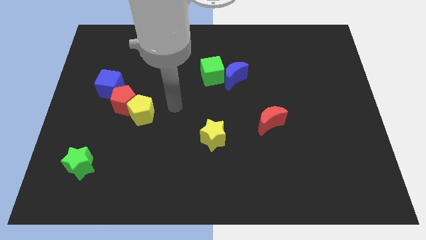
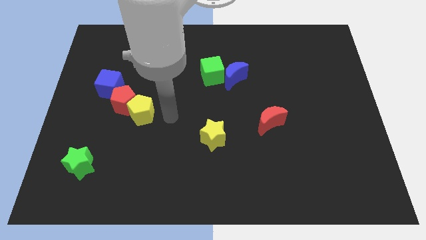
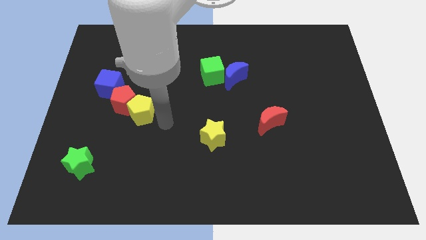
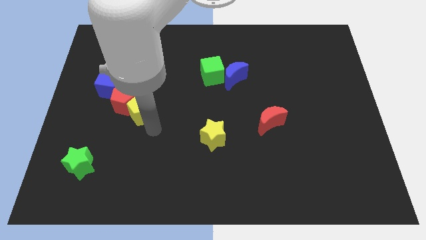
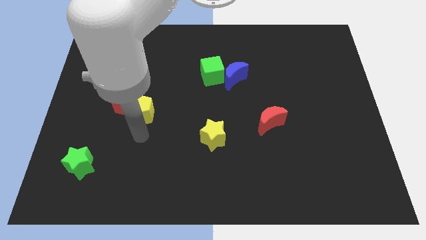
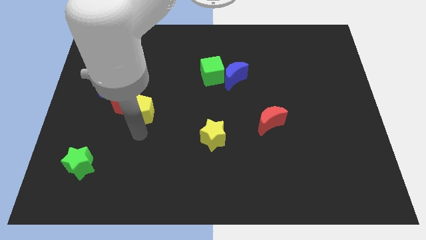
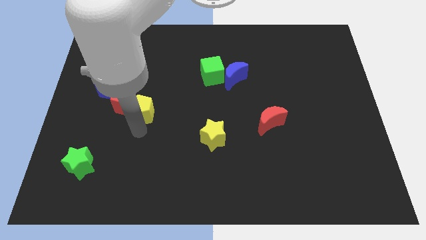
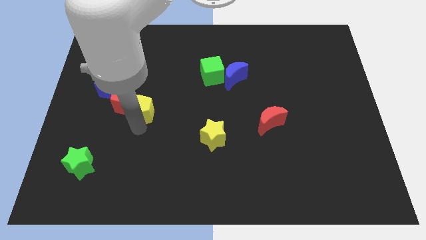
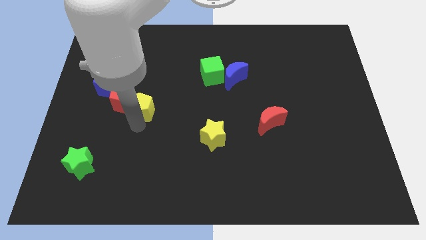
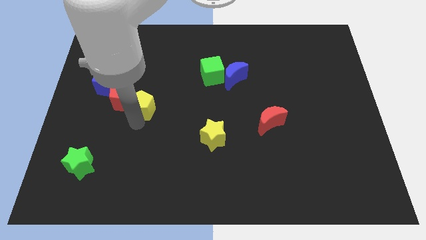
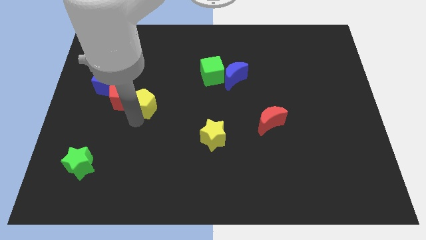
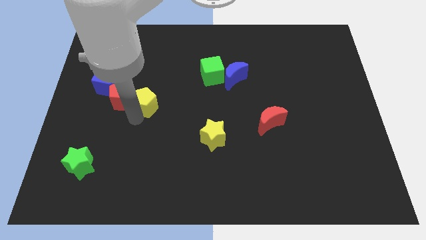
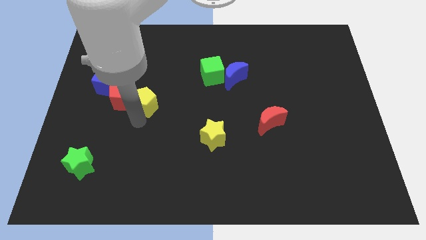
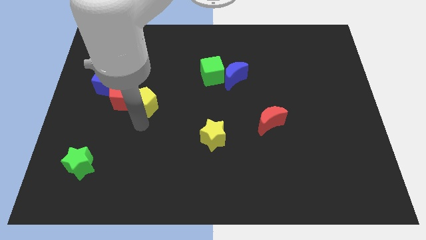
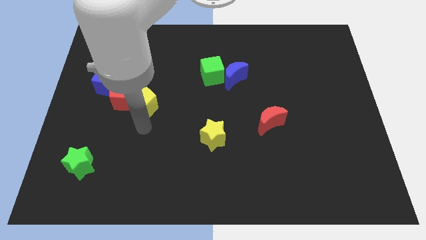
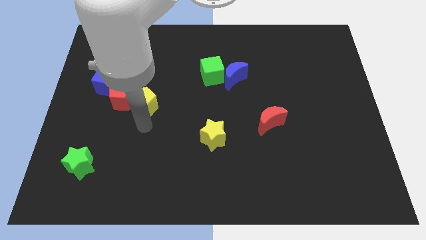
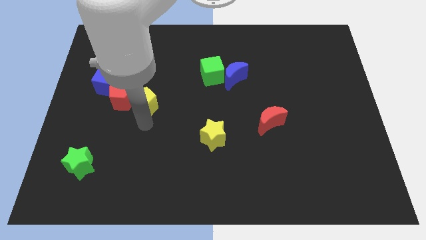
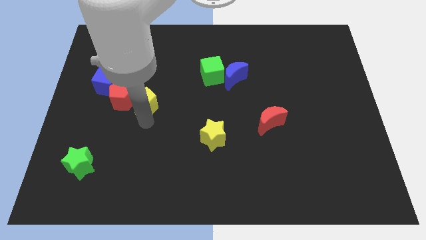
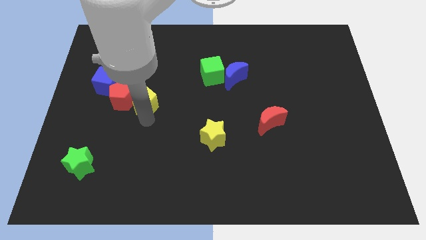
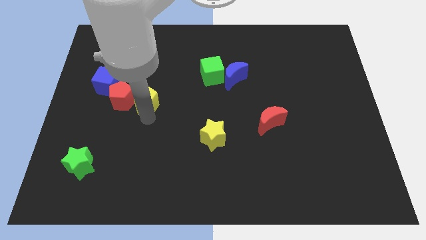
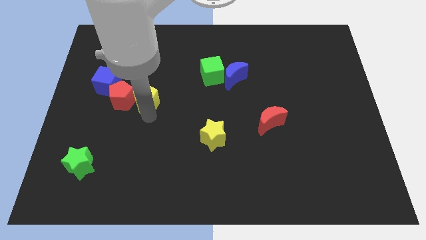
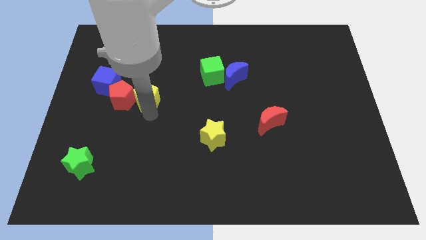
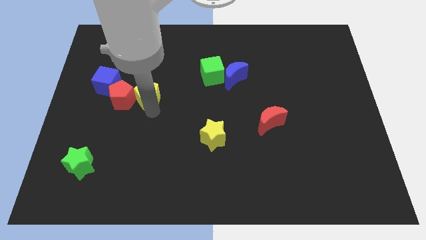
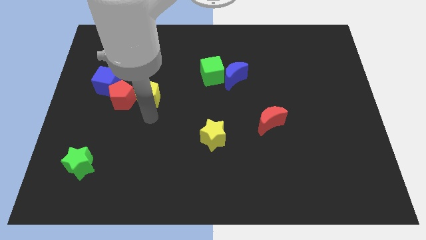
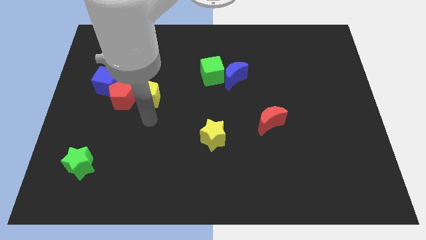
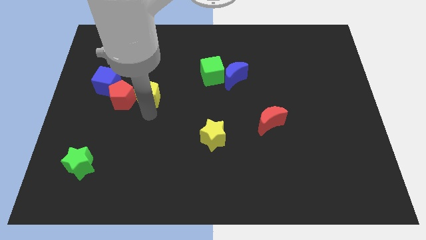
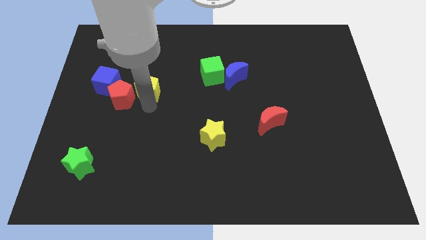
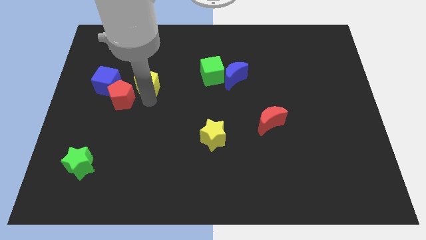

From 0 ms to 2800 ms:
move the yellow pentagon a little upwards

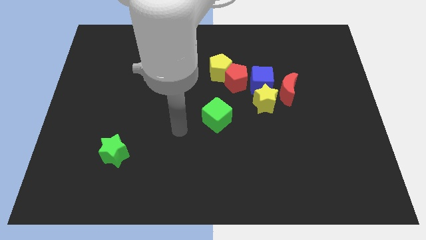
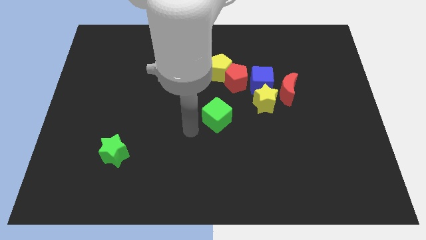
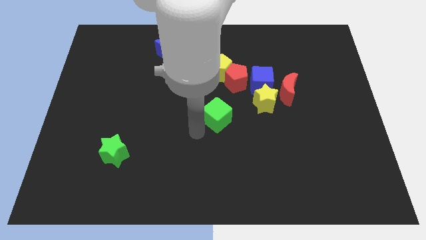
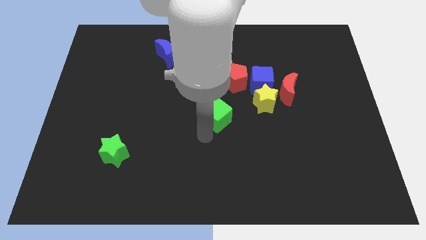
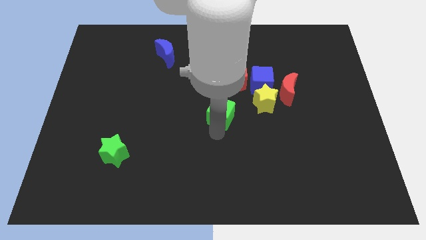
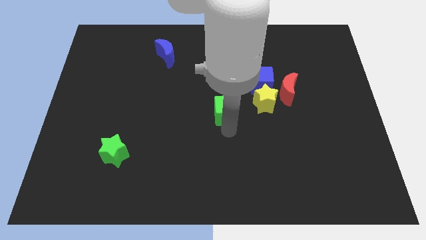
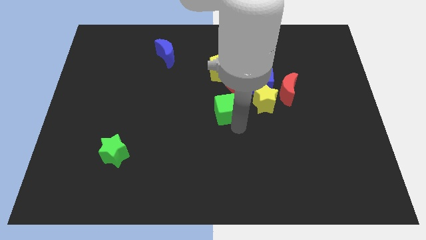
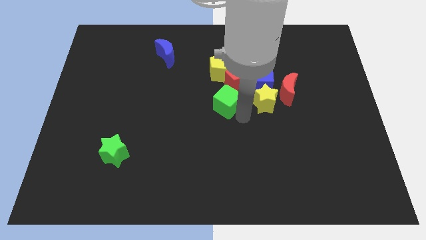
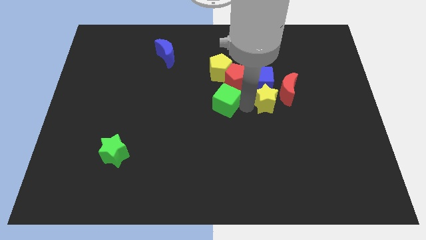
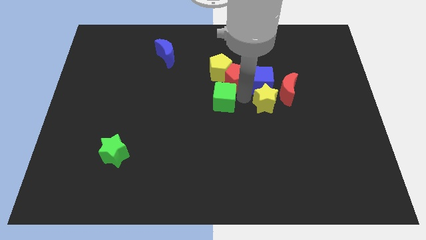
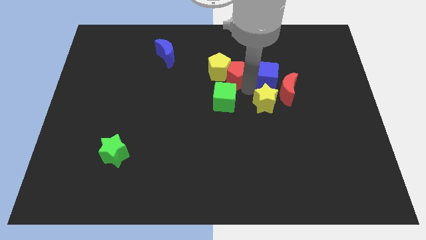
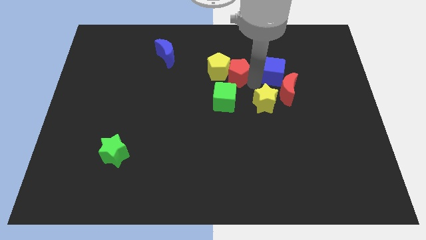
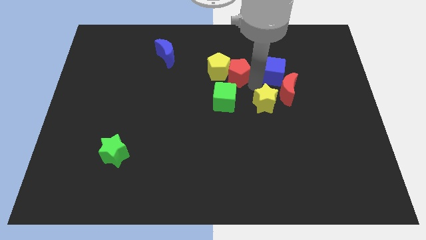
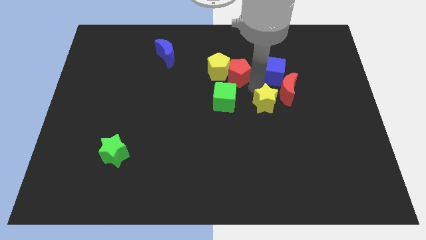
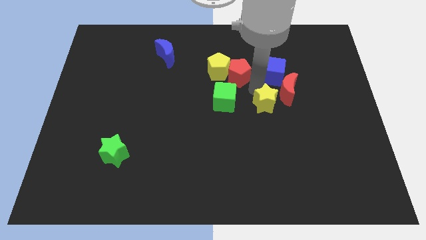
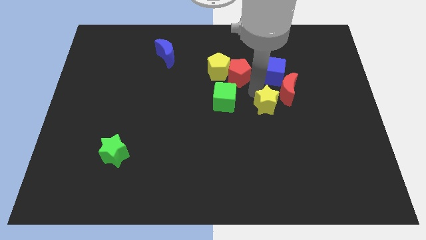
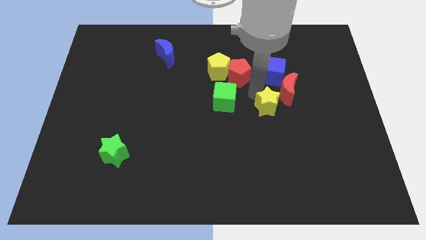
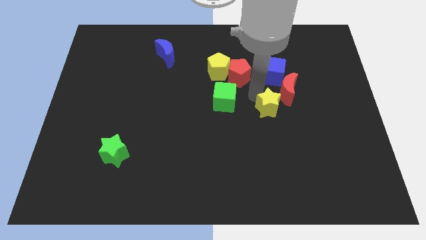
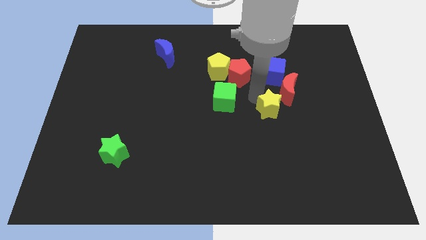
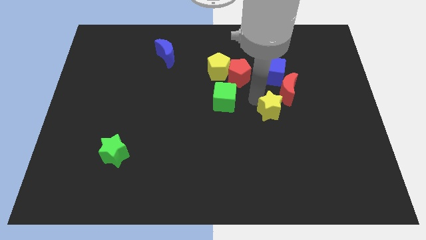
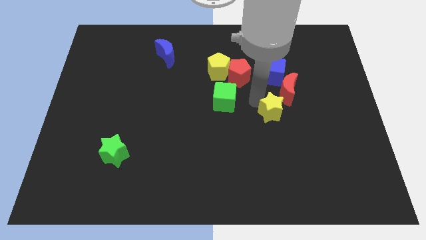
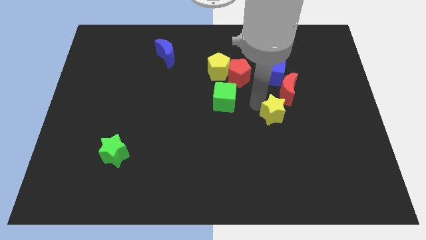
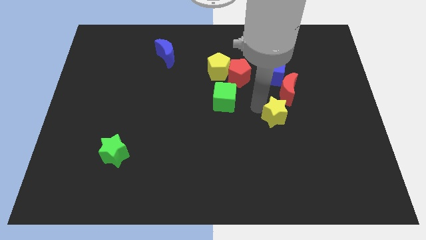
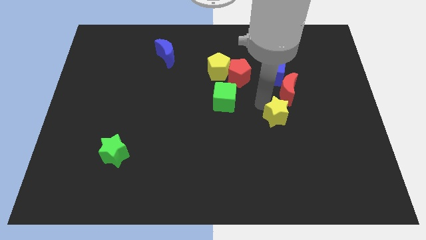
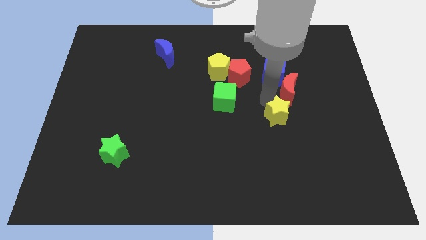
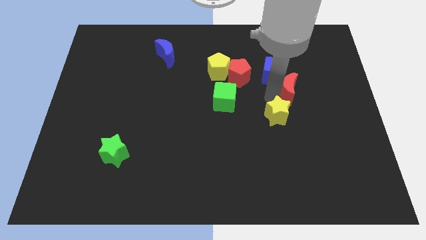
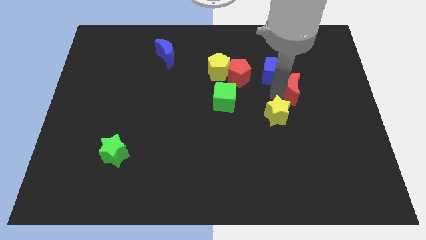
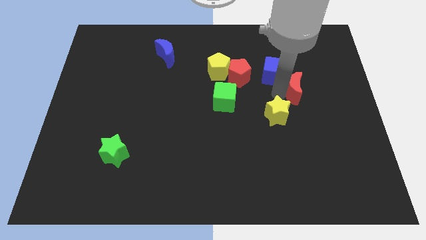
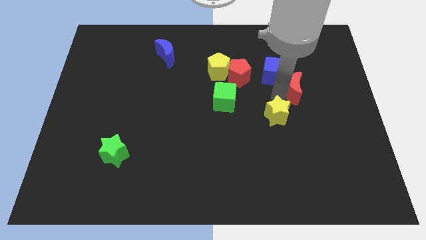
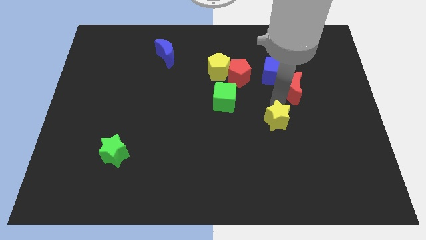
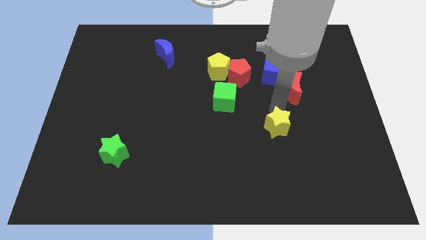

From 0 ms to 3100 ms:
slightly push the yellow star downwards

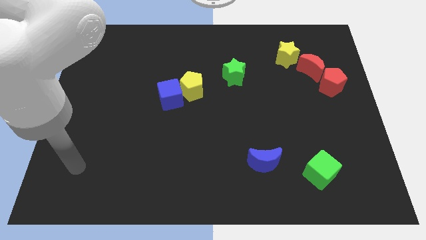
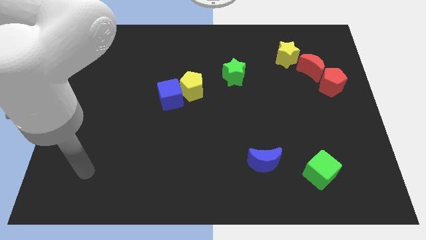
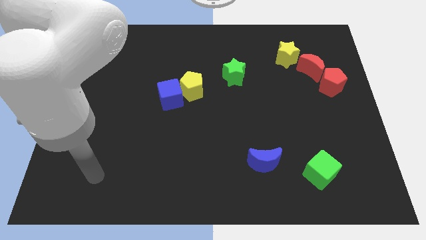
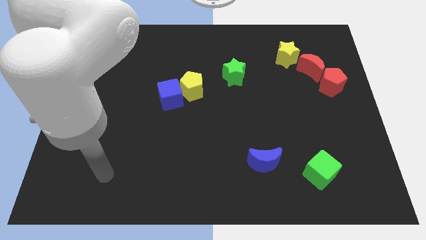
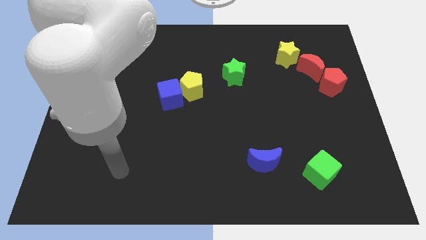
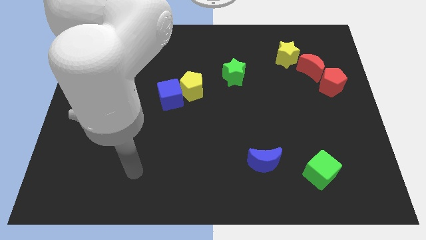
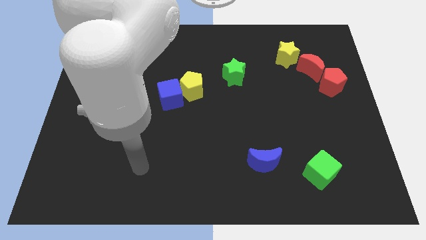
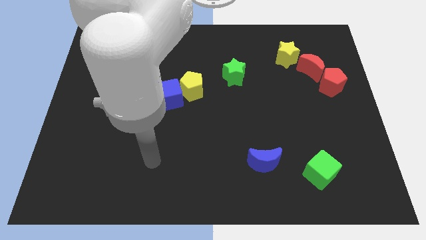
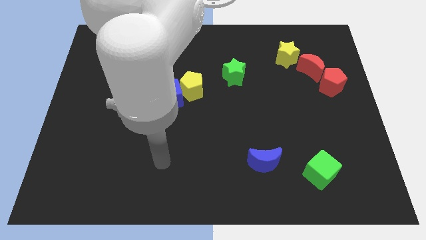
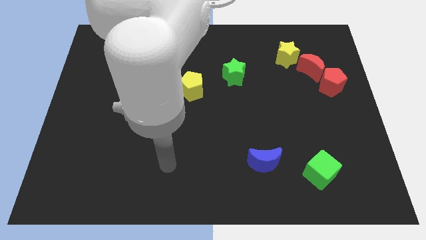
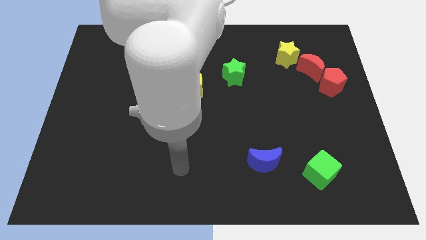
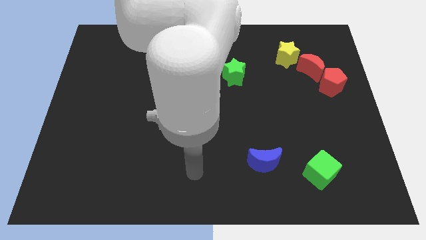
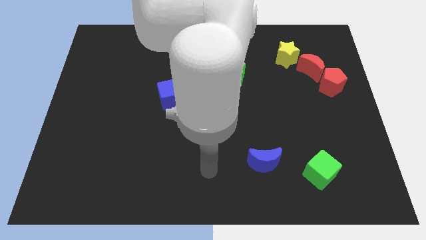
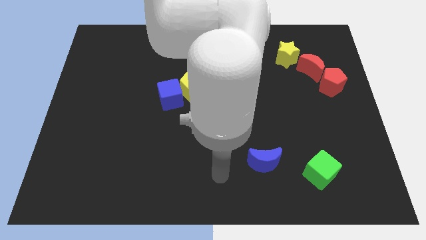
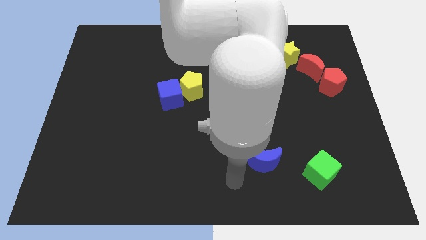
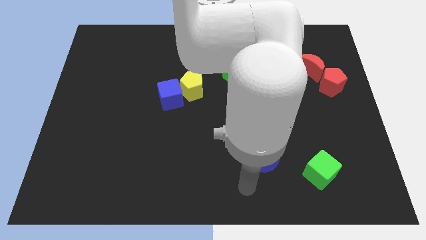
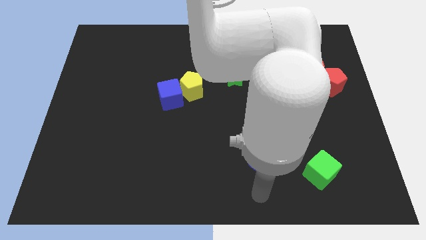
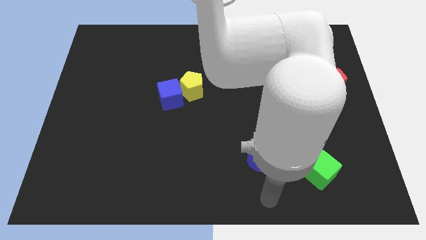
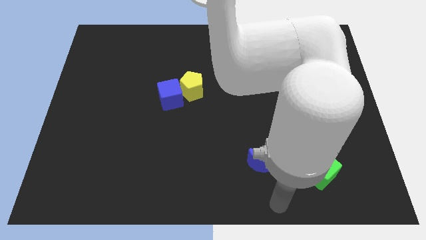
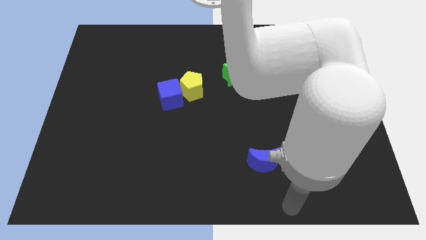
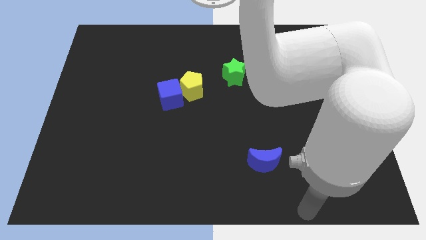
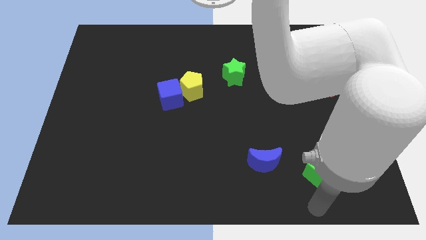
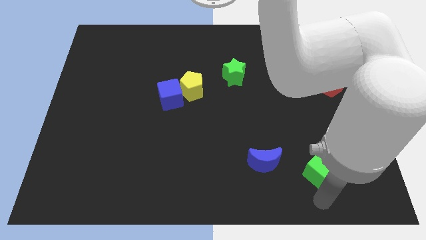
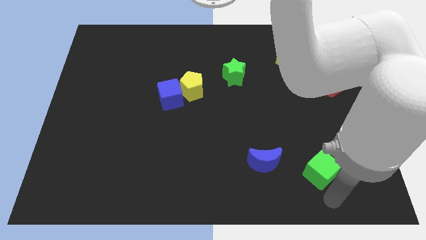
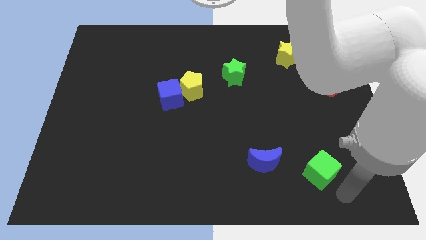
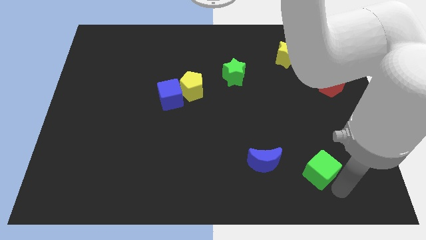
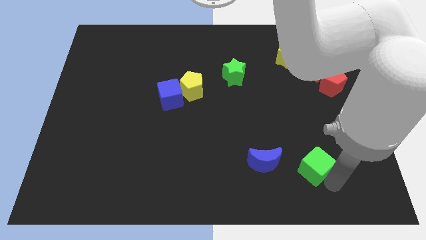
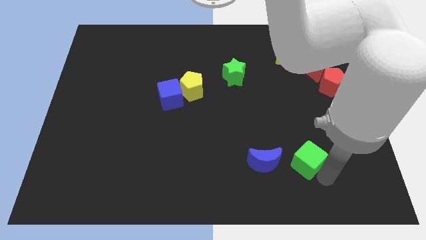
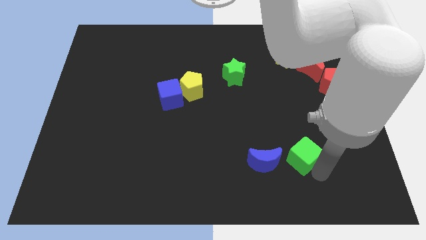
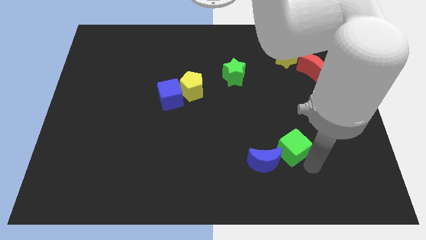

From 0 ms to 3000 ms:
slide the green cube somewhat upwards and then left
